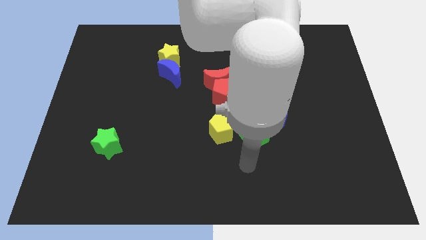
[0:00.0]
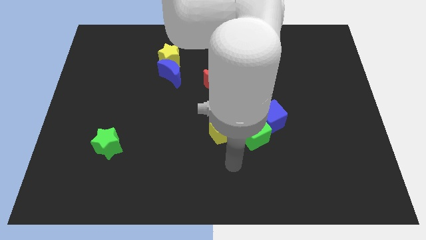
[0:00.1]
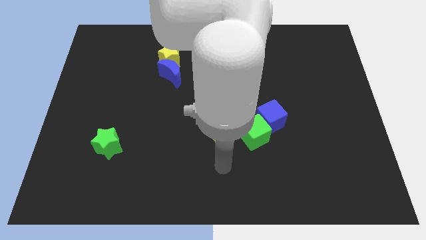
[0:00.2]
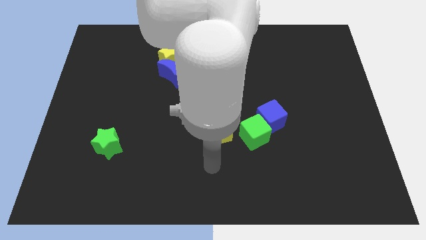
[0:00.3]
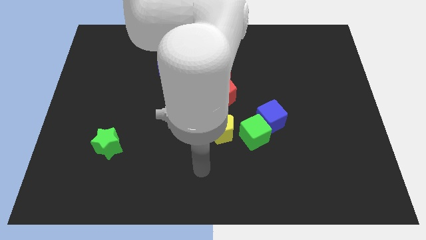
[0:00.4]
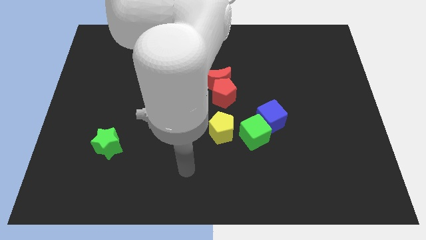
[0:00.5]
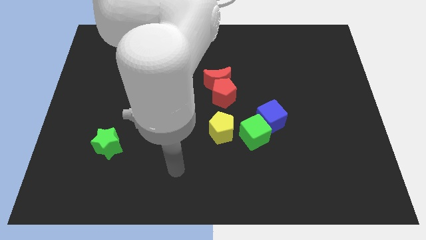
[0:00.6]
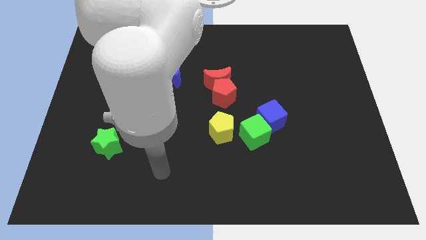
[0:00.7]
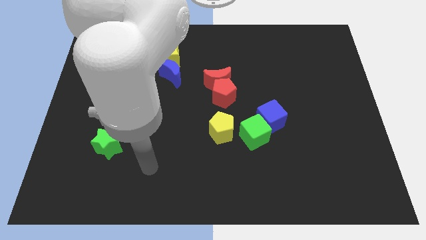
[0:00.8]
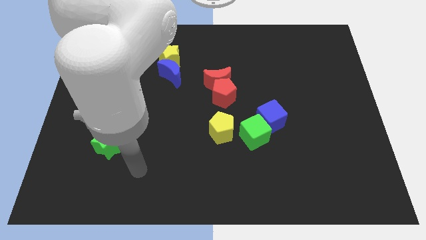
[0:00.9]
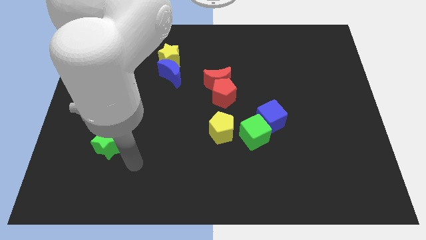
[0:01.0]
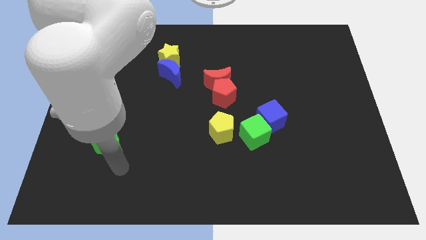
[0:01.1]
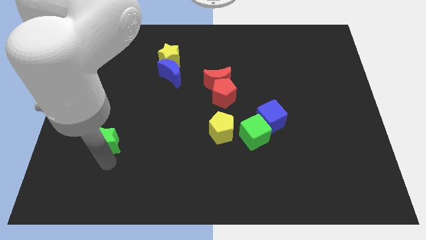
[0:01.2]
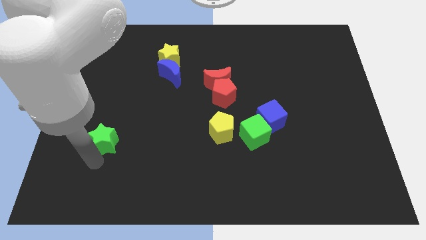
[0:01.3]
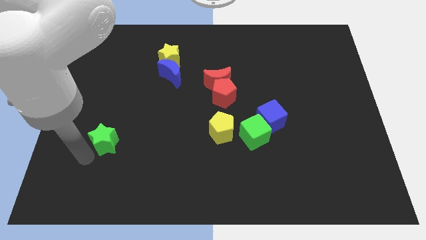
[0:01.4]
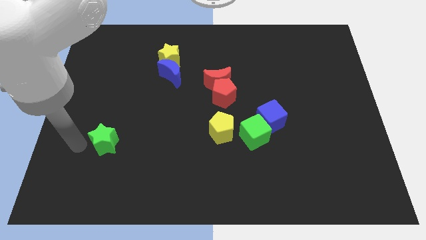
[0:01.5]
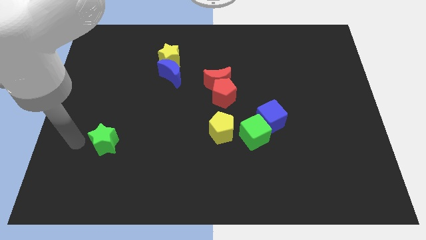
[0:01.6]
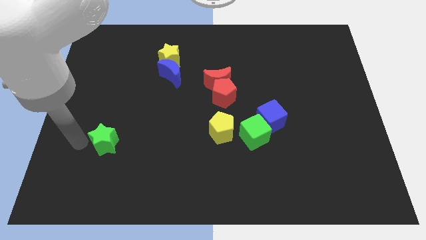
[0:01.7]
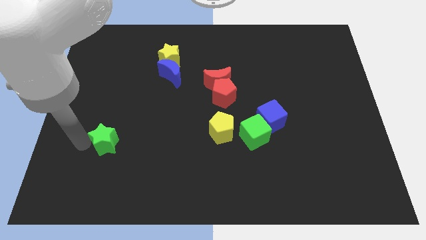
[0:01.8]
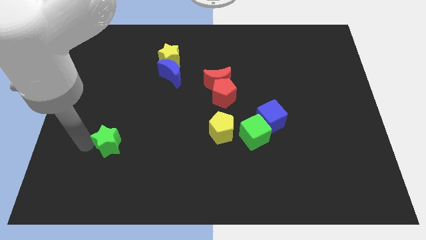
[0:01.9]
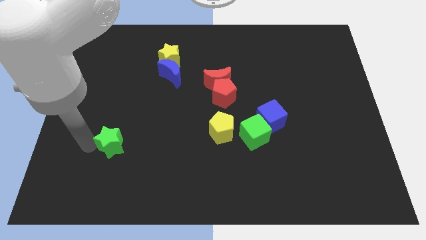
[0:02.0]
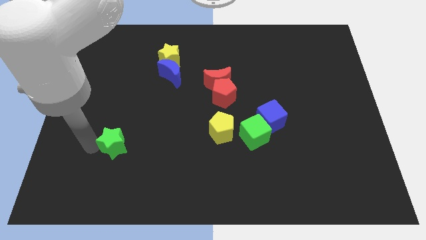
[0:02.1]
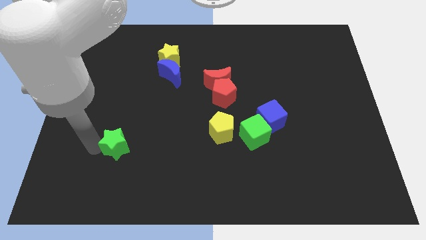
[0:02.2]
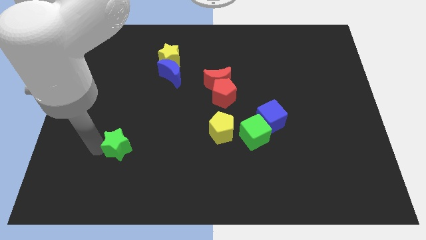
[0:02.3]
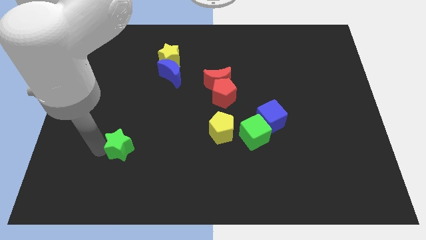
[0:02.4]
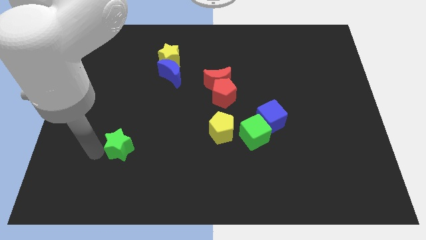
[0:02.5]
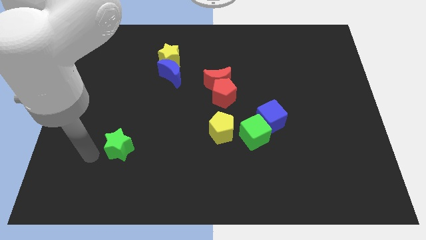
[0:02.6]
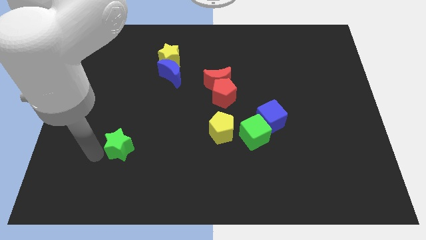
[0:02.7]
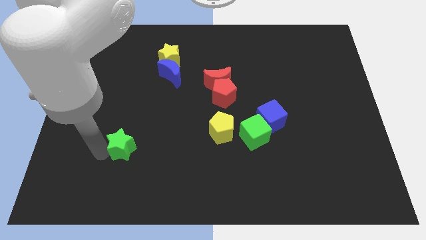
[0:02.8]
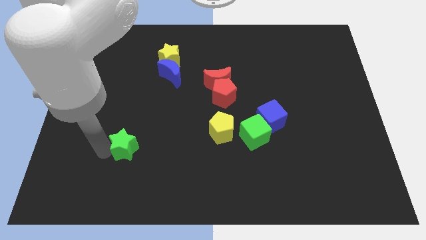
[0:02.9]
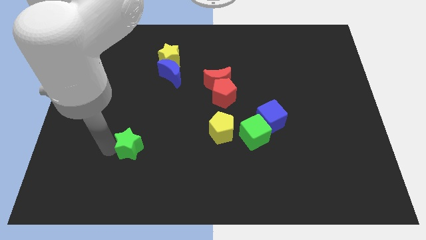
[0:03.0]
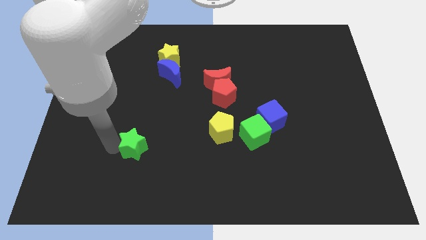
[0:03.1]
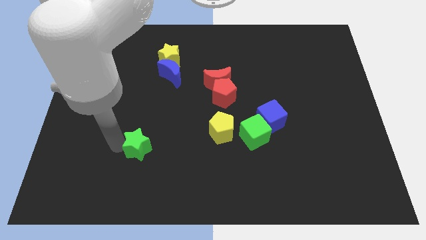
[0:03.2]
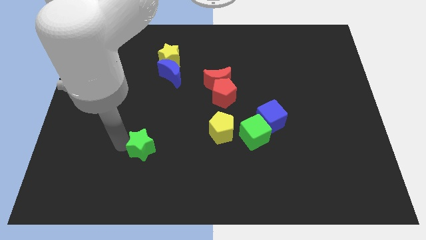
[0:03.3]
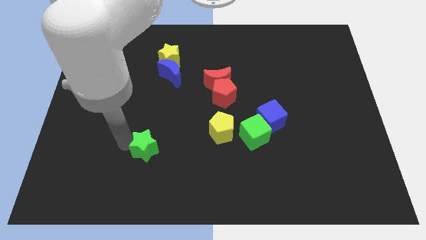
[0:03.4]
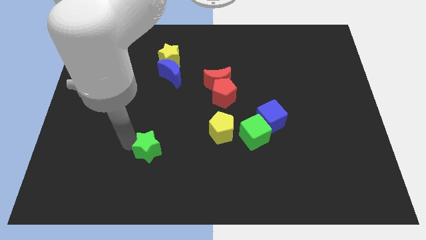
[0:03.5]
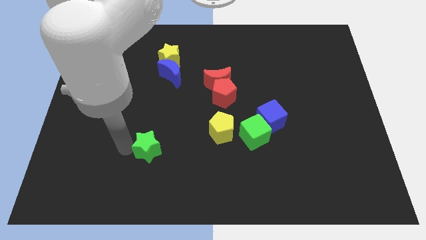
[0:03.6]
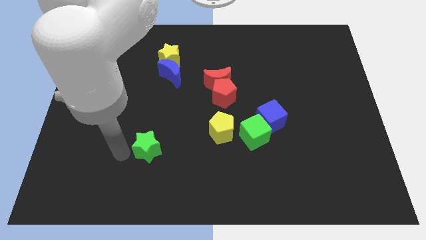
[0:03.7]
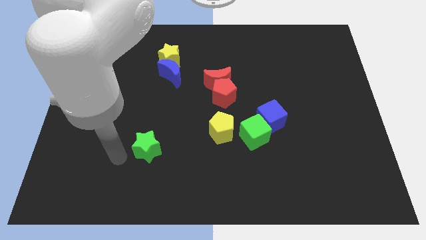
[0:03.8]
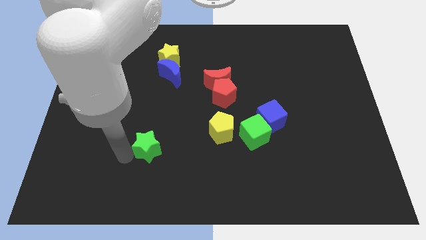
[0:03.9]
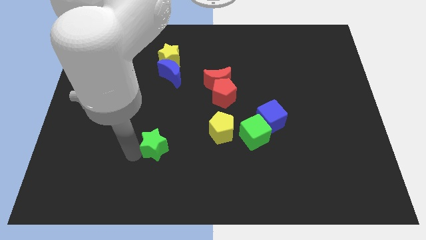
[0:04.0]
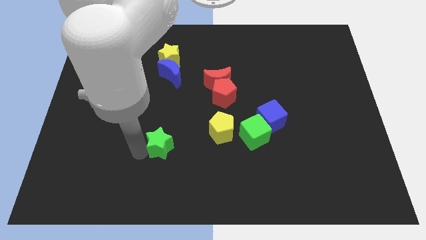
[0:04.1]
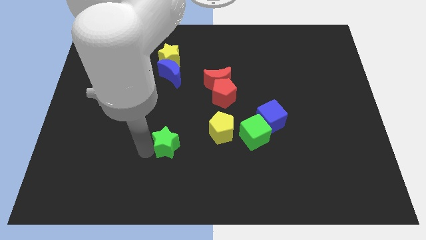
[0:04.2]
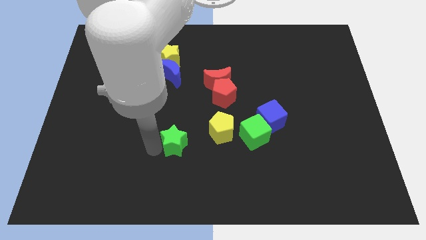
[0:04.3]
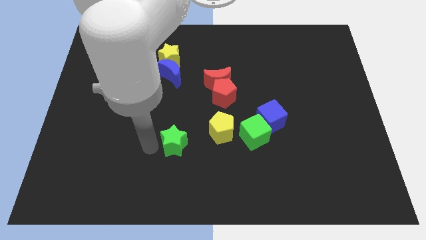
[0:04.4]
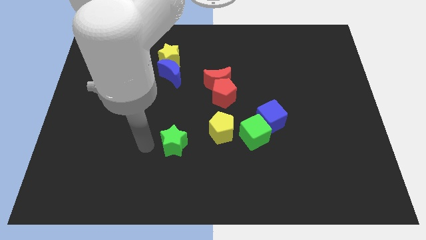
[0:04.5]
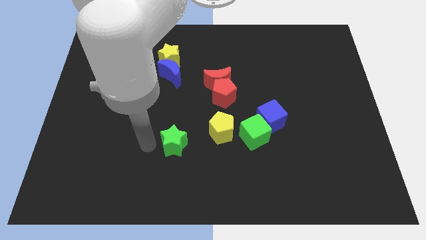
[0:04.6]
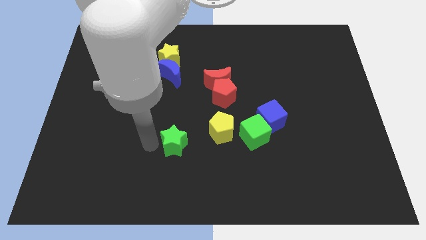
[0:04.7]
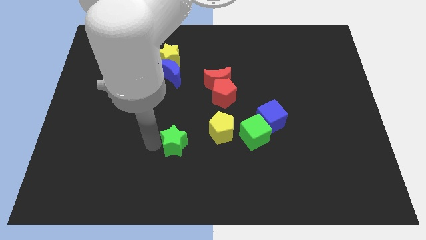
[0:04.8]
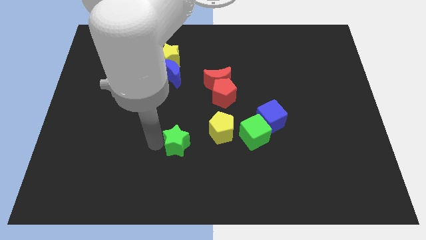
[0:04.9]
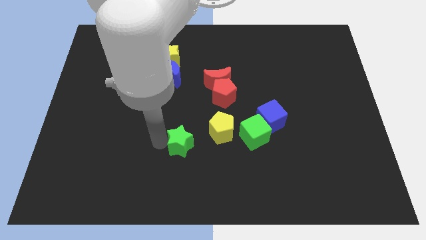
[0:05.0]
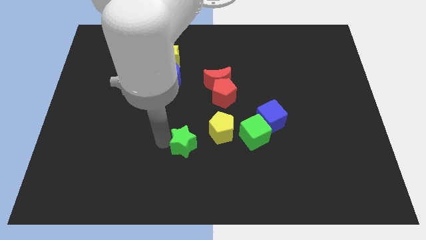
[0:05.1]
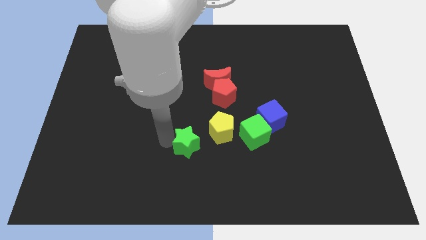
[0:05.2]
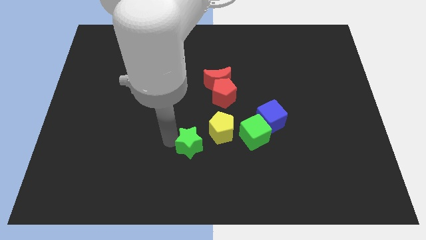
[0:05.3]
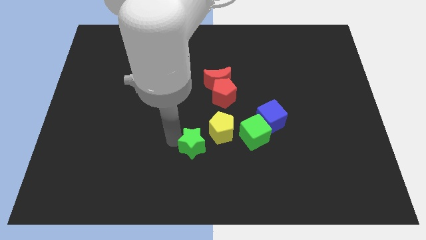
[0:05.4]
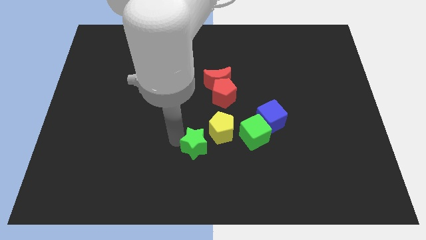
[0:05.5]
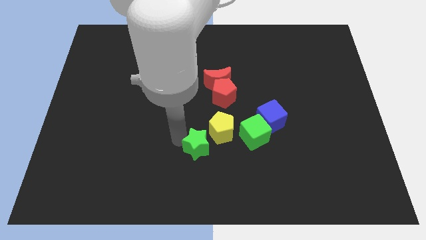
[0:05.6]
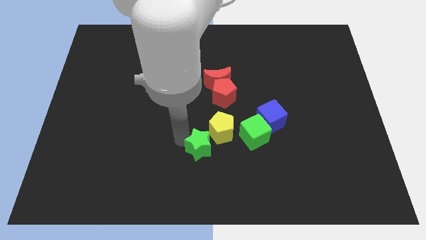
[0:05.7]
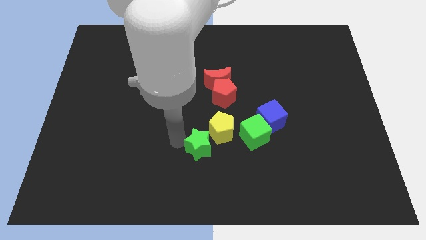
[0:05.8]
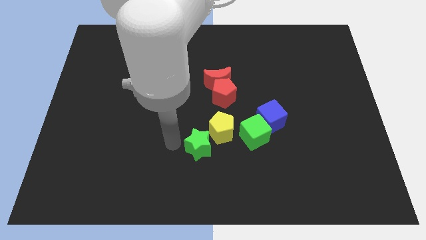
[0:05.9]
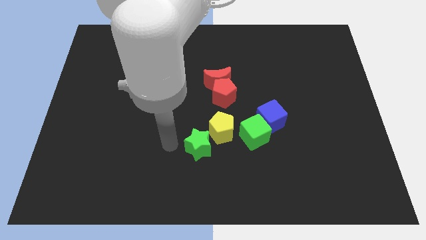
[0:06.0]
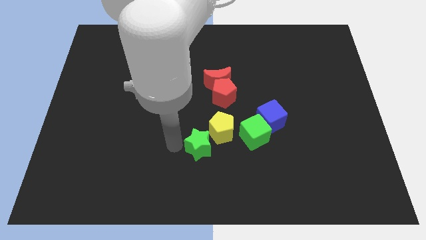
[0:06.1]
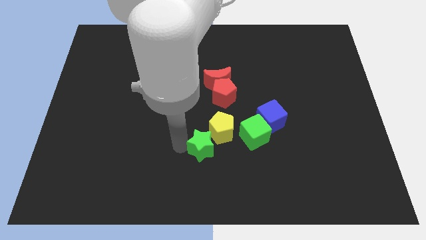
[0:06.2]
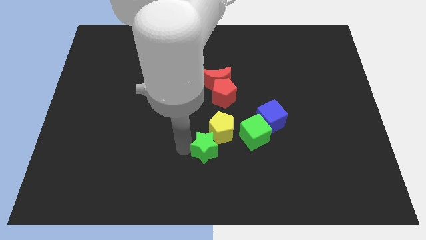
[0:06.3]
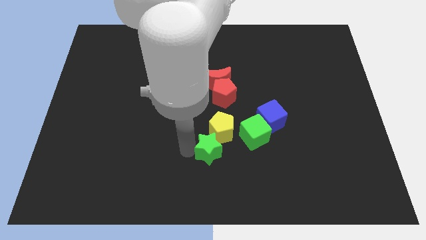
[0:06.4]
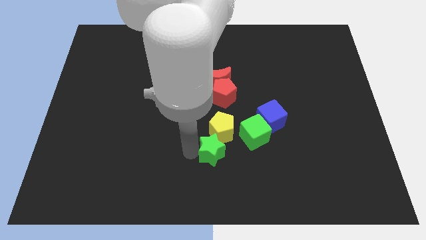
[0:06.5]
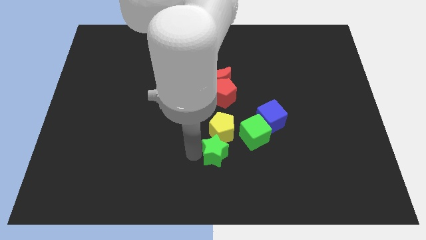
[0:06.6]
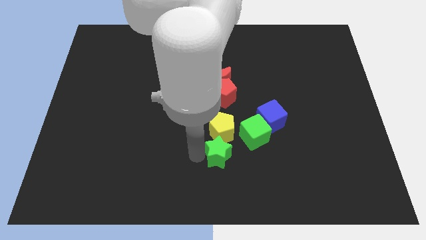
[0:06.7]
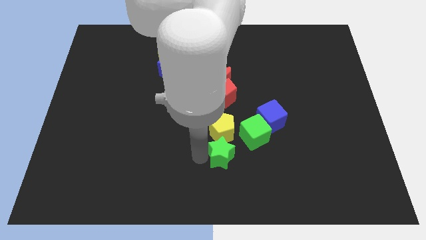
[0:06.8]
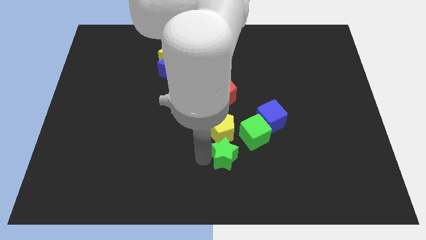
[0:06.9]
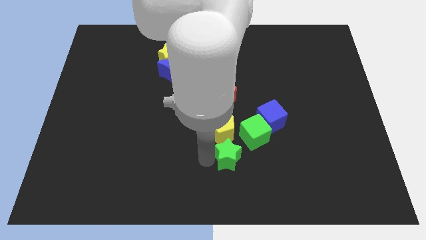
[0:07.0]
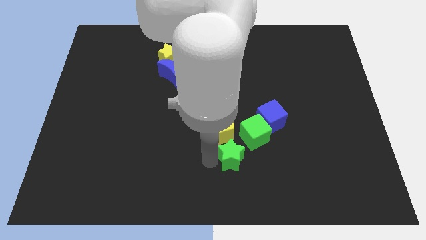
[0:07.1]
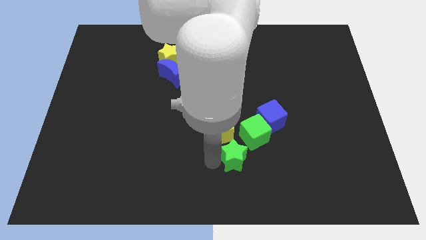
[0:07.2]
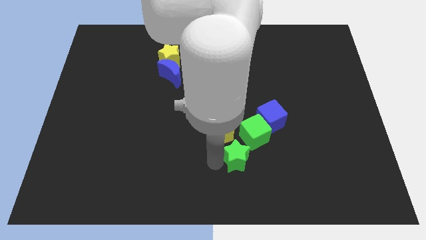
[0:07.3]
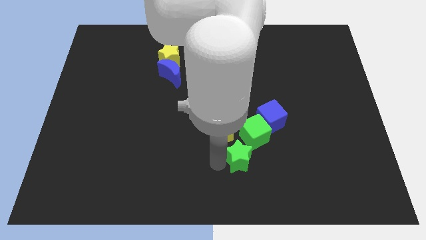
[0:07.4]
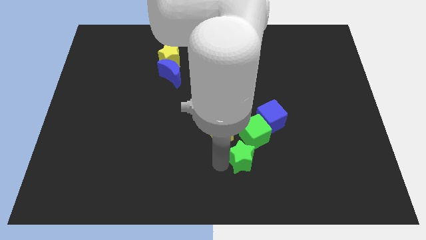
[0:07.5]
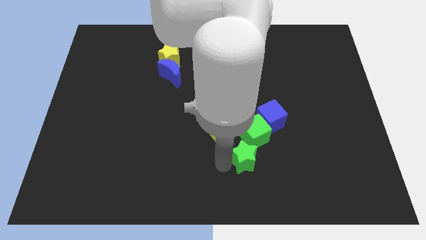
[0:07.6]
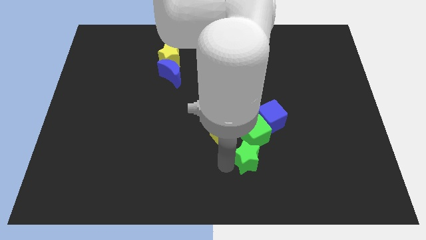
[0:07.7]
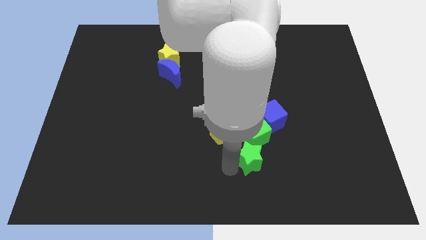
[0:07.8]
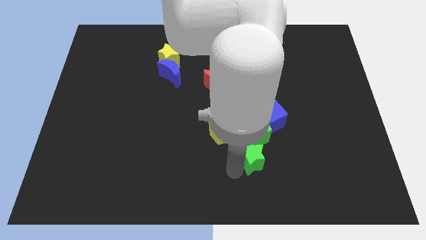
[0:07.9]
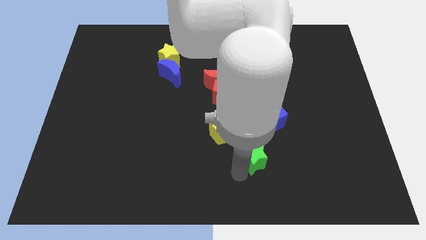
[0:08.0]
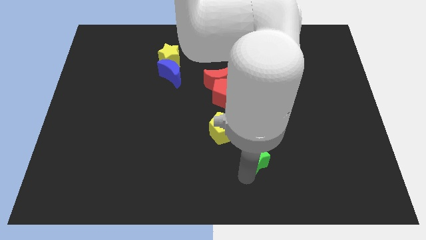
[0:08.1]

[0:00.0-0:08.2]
push the green star towards the green cube
